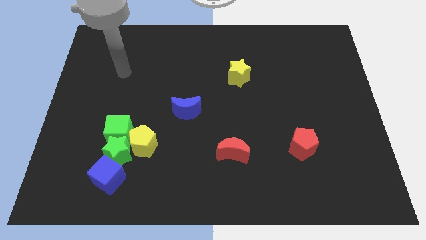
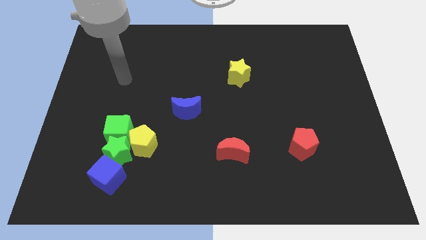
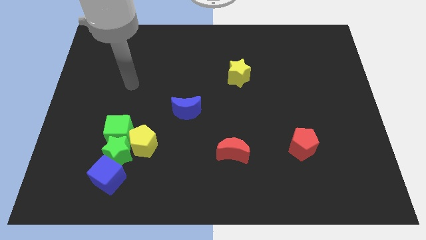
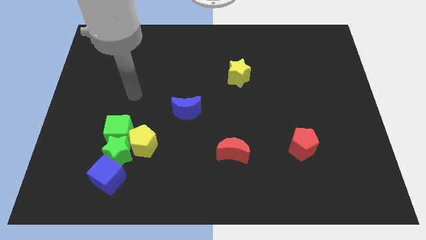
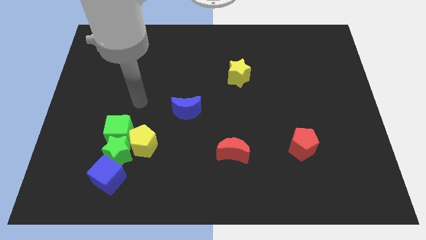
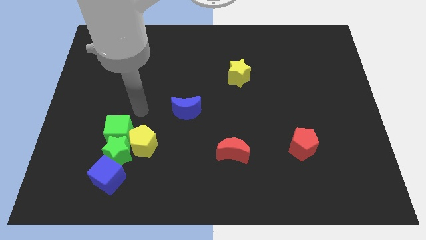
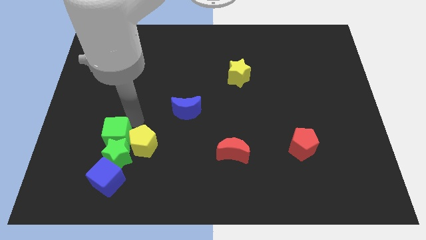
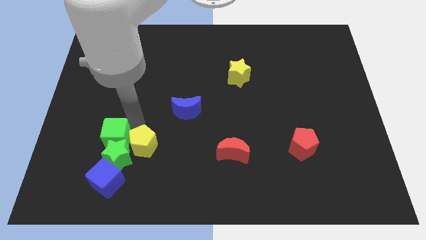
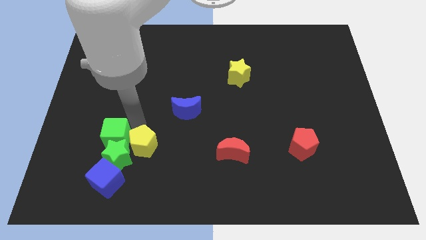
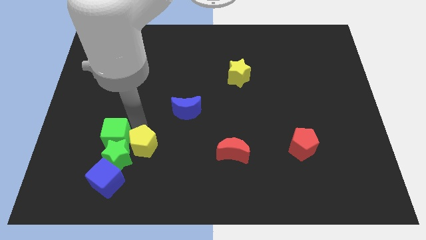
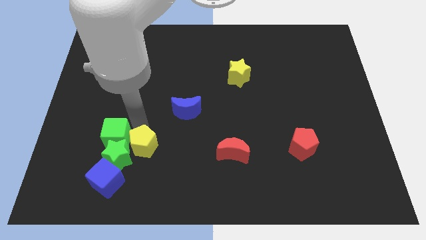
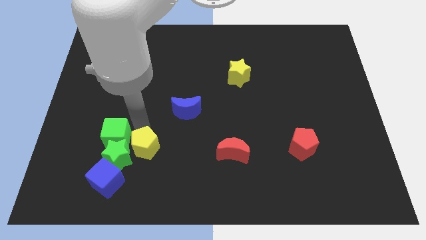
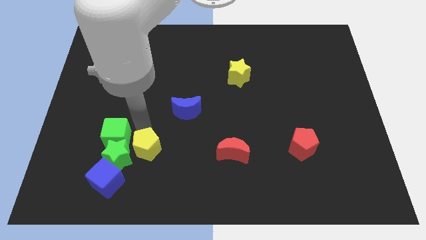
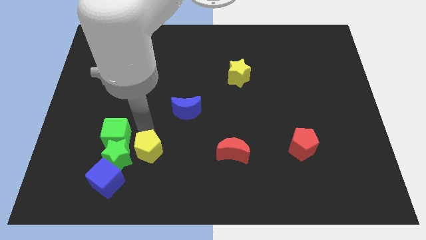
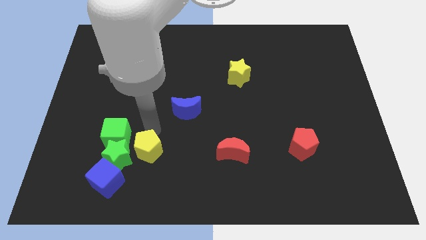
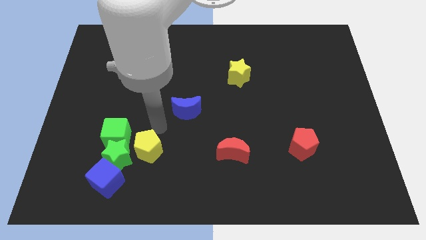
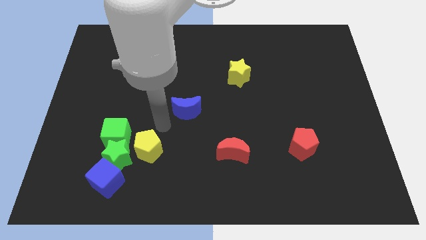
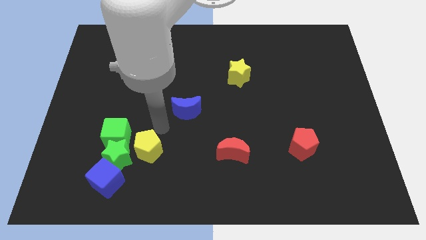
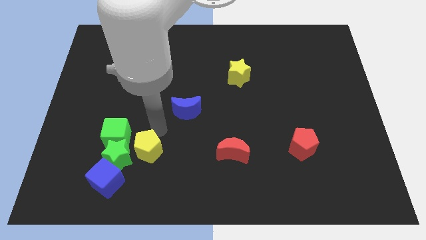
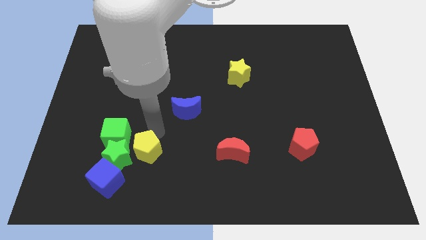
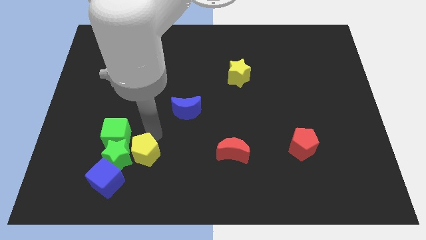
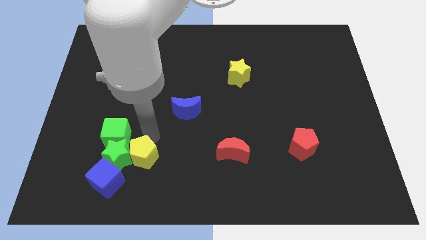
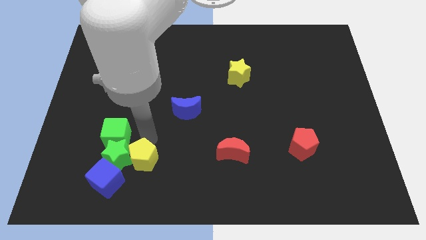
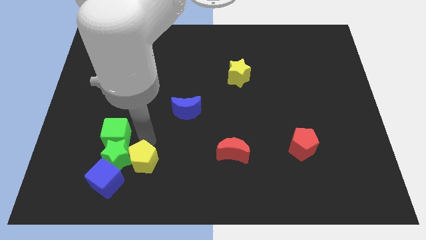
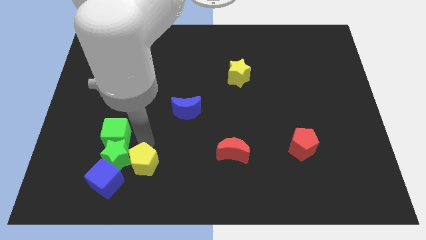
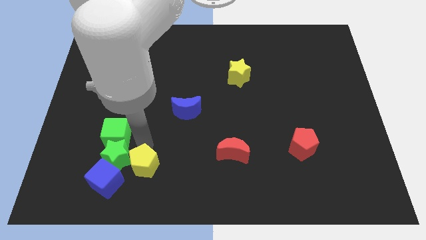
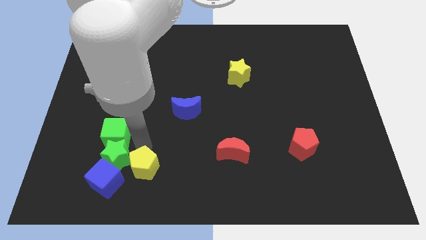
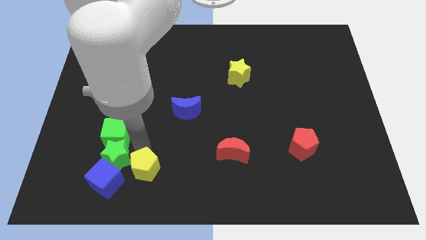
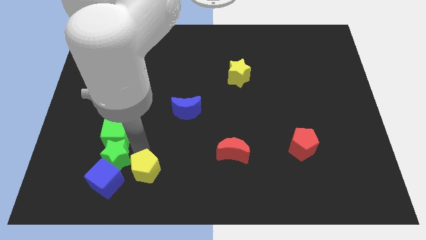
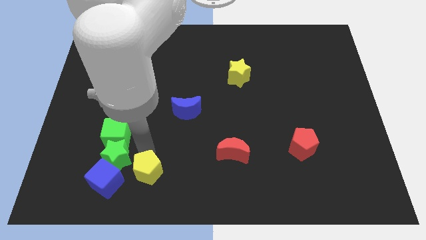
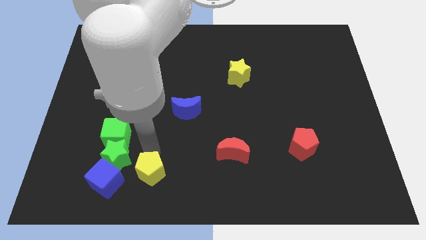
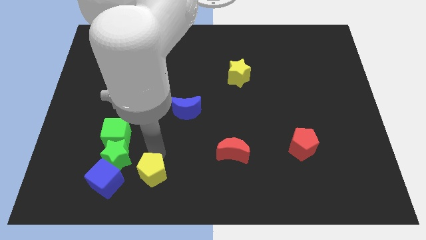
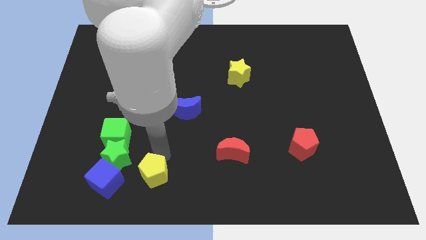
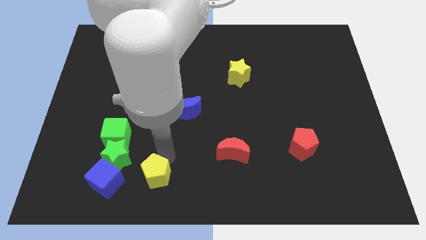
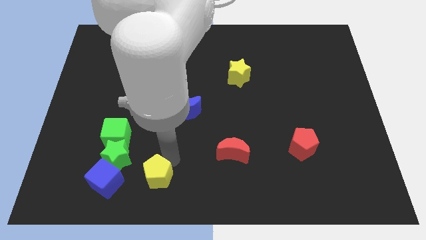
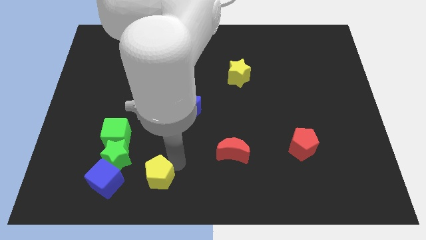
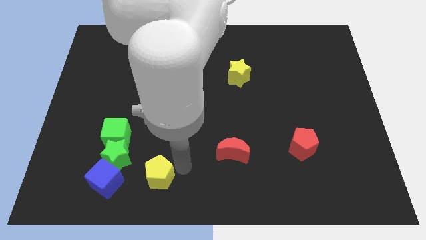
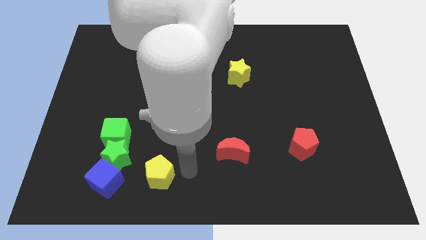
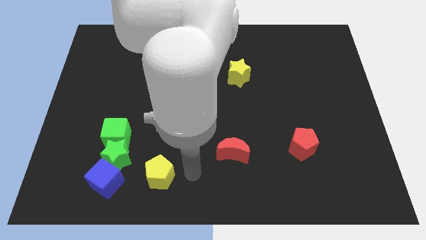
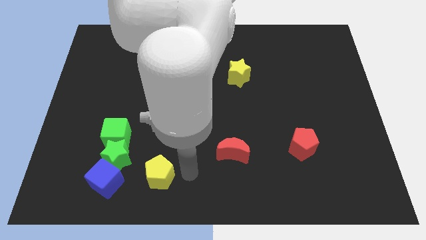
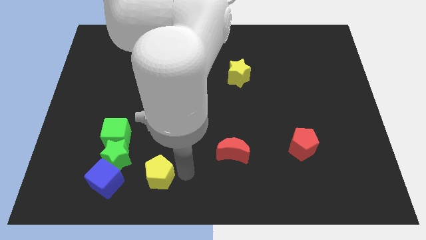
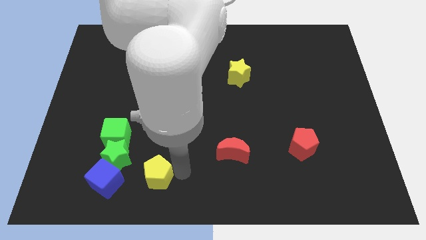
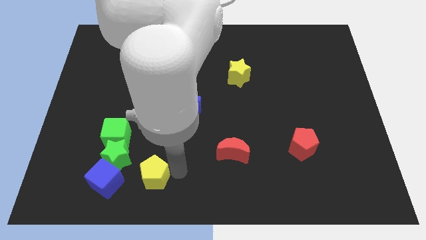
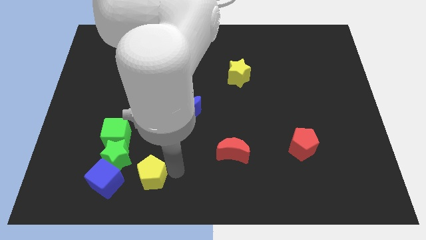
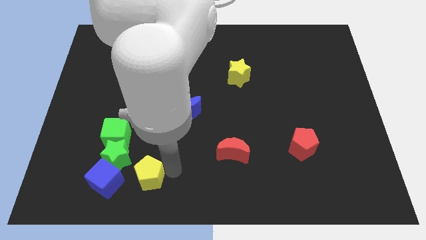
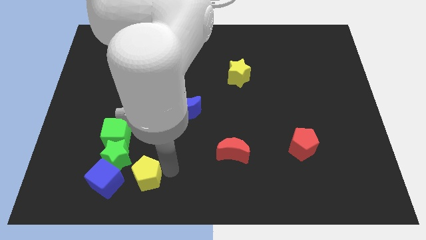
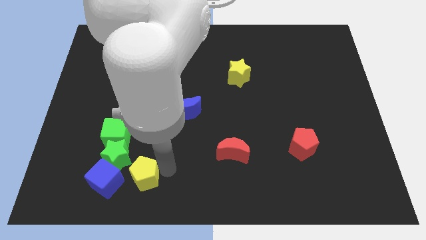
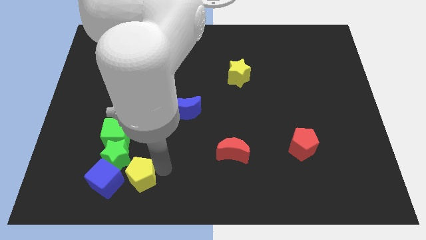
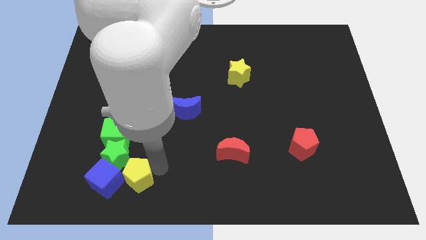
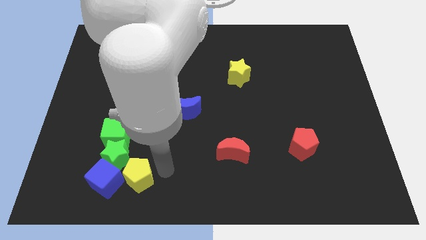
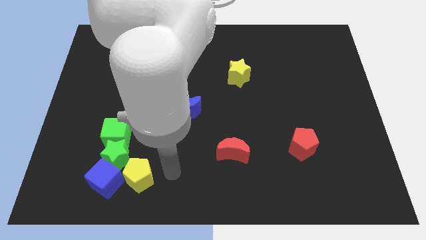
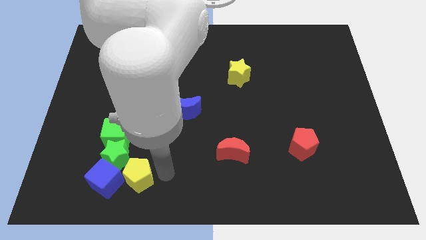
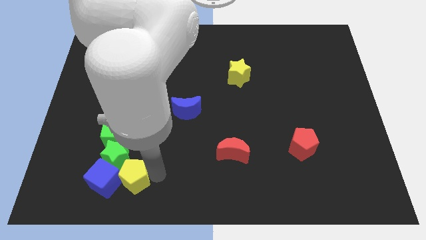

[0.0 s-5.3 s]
slide the yellow pentagon towards the blue cube

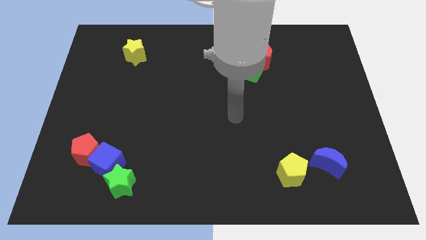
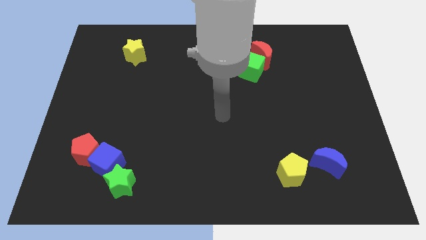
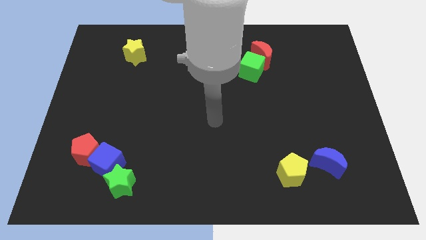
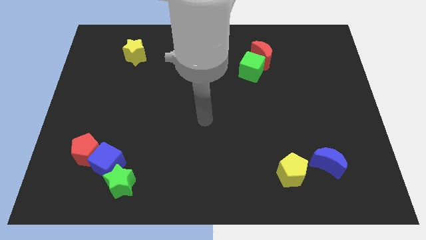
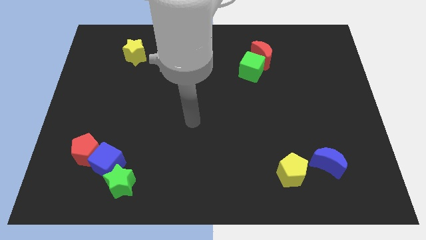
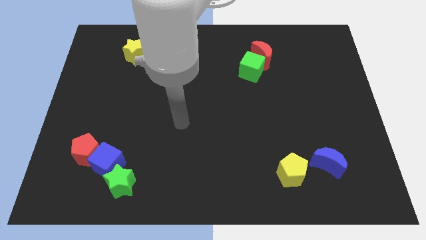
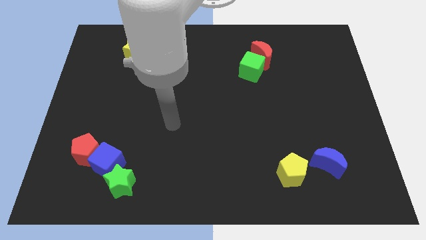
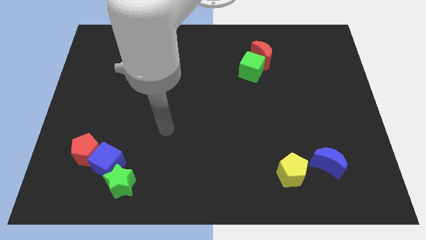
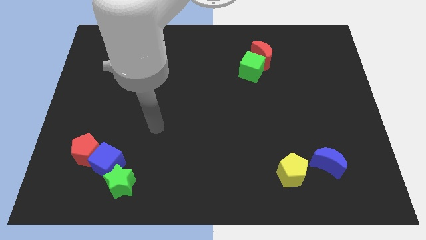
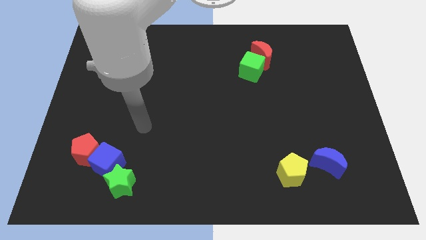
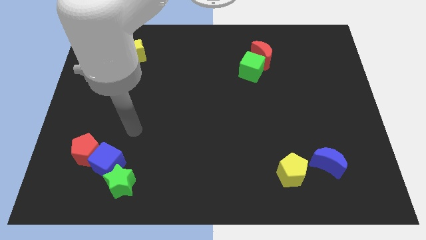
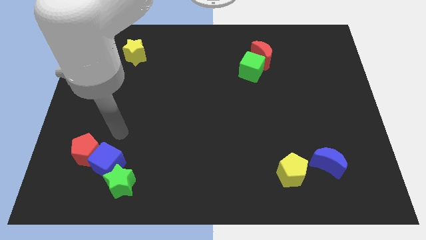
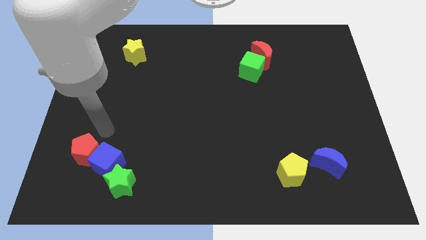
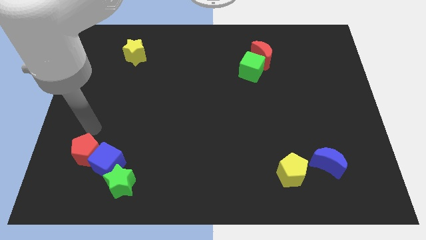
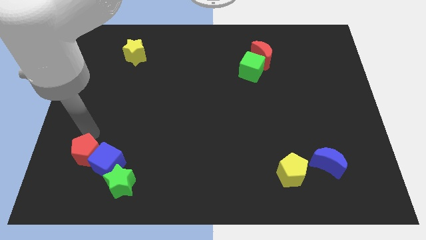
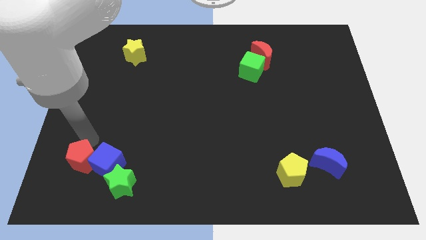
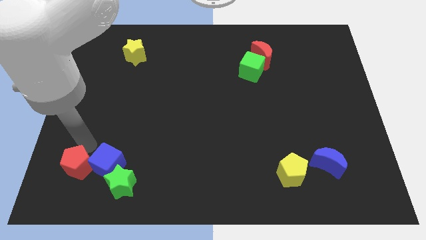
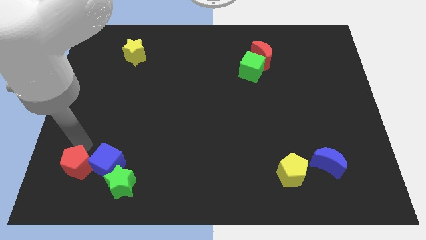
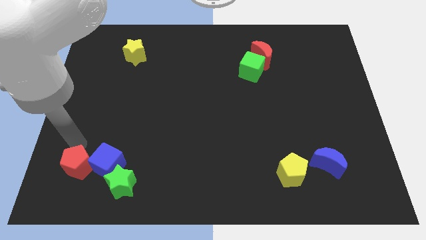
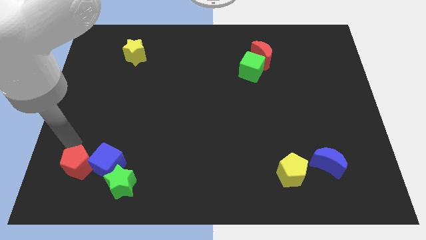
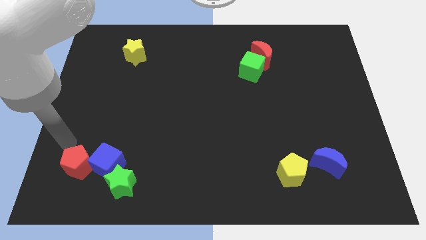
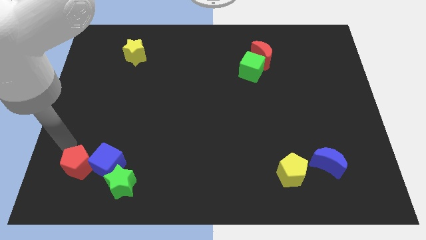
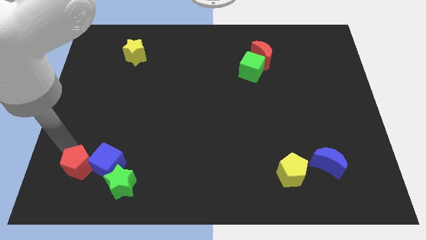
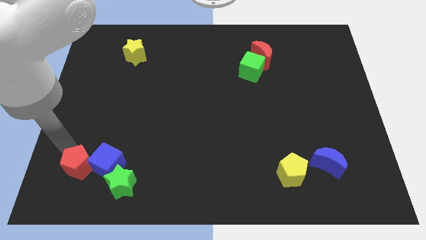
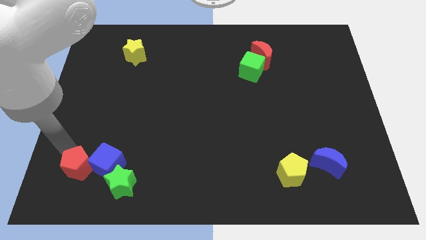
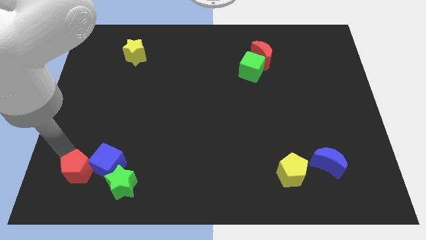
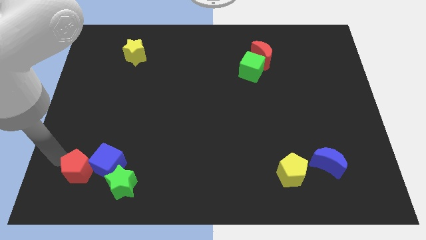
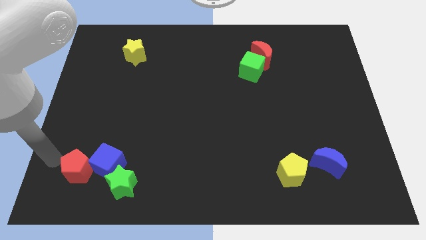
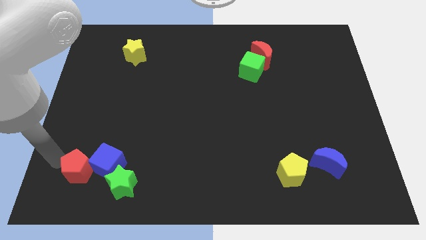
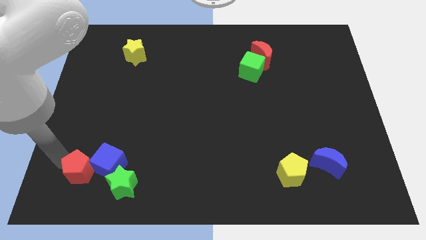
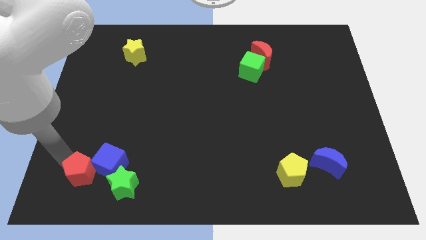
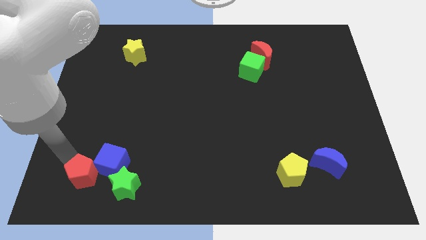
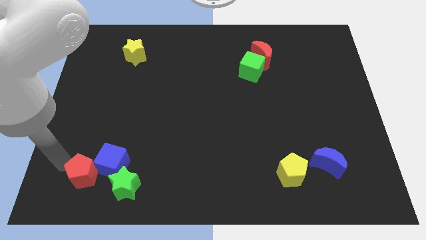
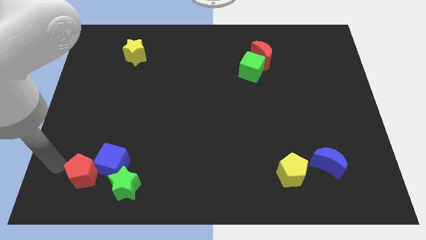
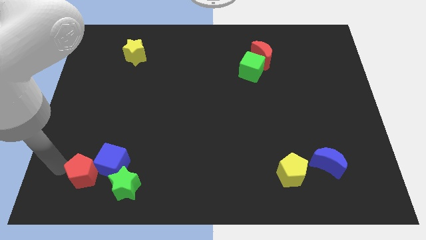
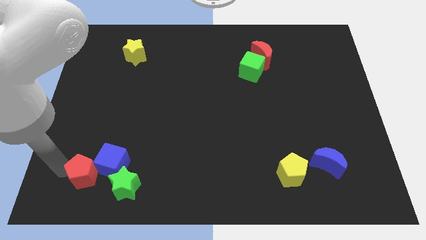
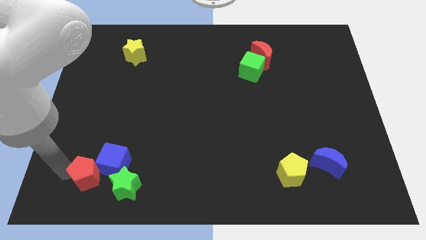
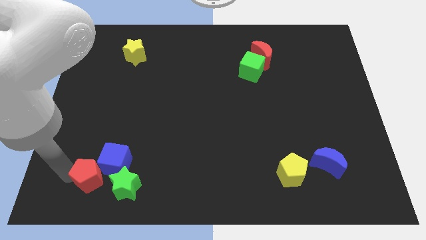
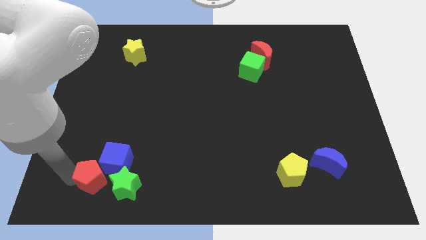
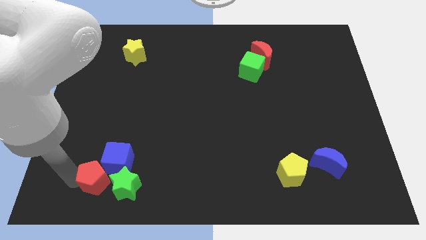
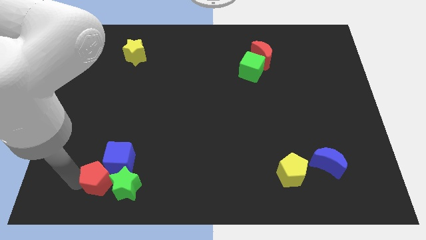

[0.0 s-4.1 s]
put the red pentagon towards the green star
